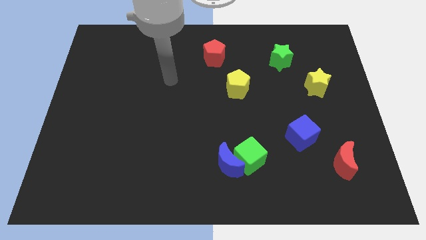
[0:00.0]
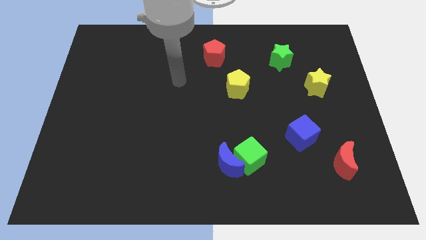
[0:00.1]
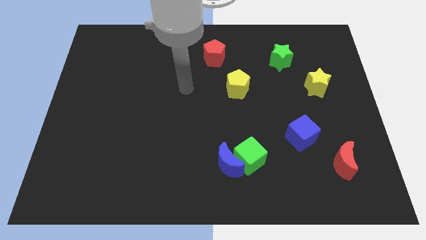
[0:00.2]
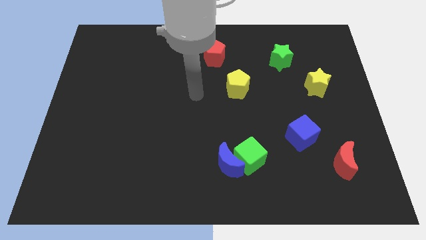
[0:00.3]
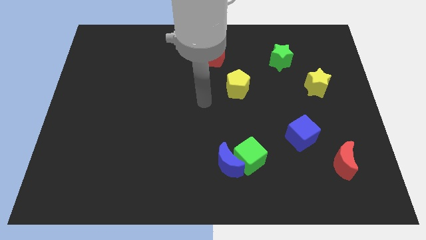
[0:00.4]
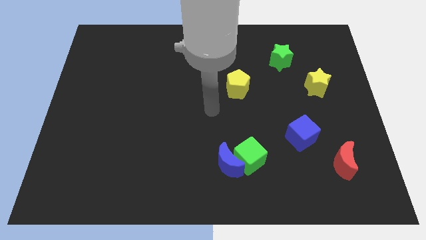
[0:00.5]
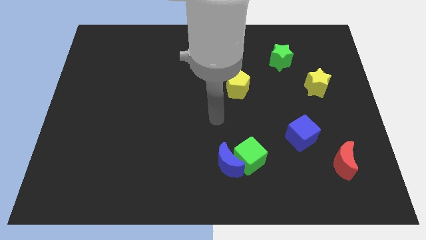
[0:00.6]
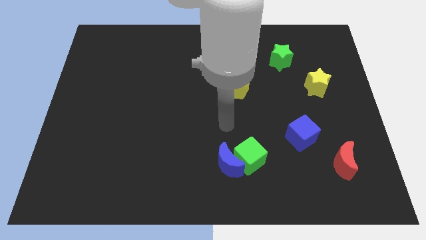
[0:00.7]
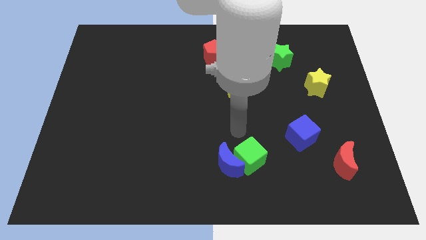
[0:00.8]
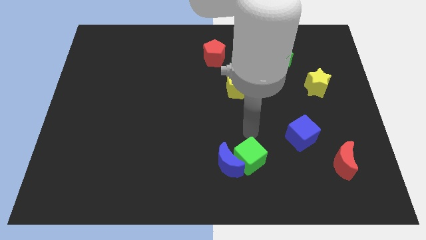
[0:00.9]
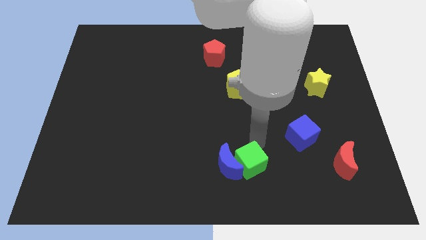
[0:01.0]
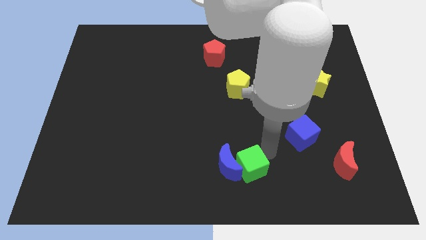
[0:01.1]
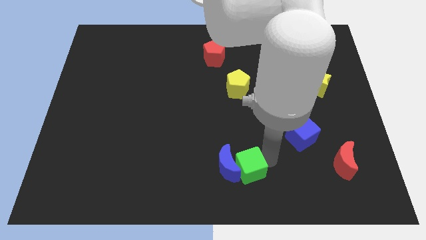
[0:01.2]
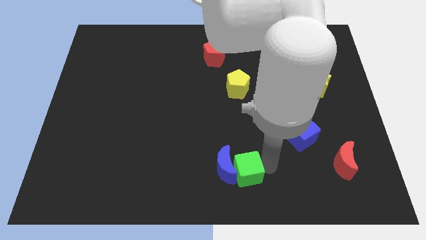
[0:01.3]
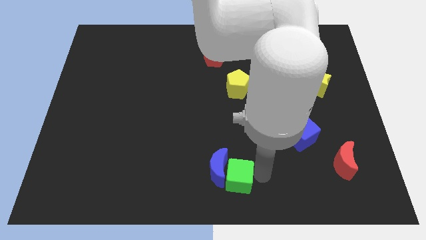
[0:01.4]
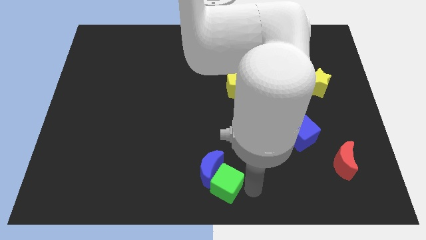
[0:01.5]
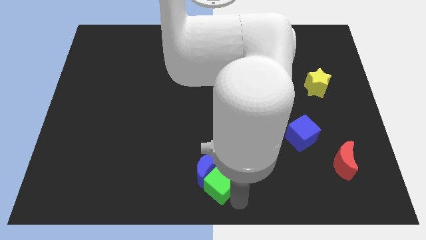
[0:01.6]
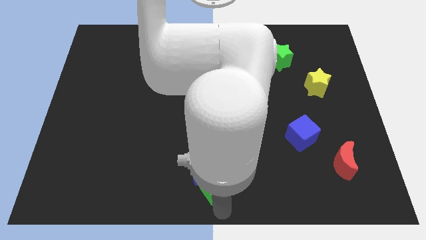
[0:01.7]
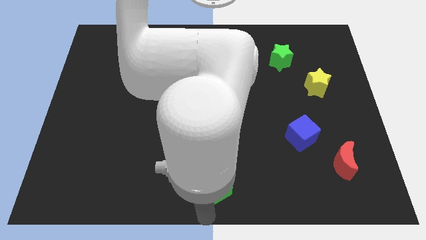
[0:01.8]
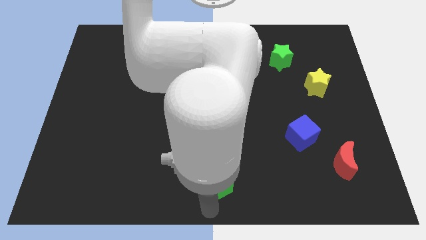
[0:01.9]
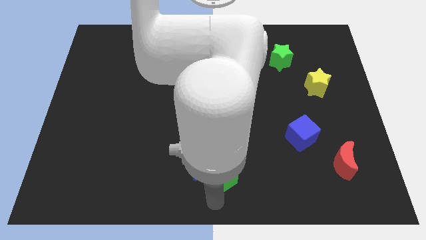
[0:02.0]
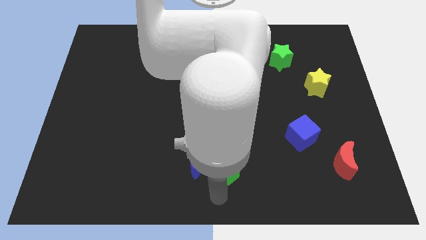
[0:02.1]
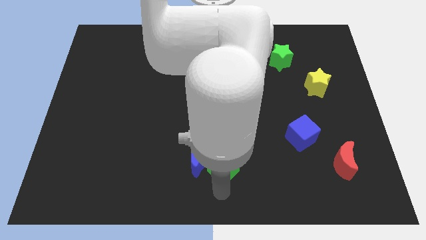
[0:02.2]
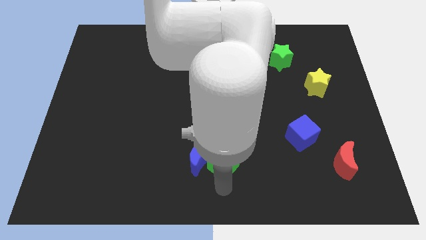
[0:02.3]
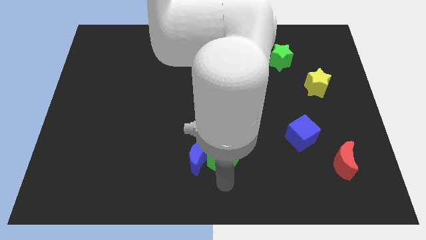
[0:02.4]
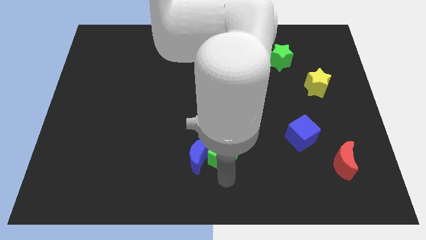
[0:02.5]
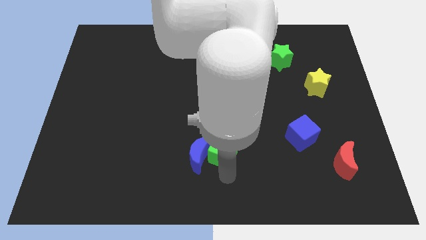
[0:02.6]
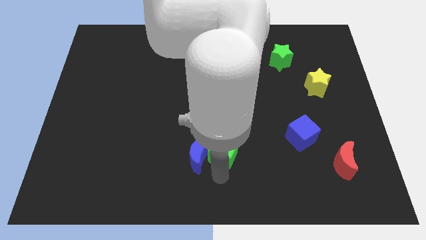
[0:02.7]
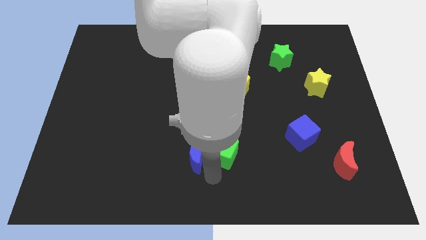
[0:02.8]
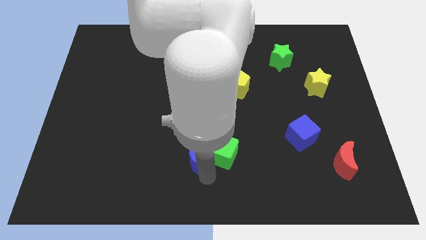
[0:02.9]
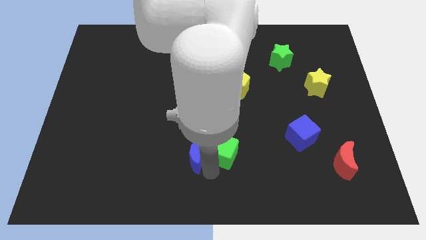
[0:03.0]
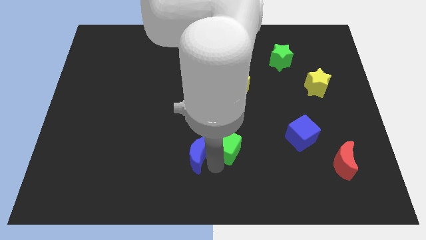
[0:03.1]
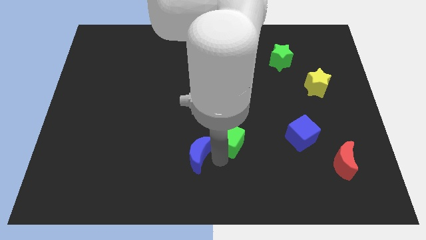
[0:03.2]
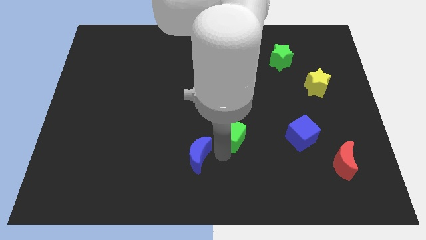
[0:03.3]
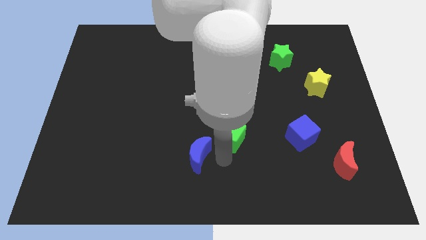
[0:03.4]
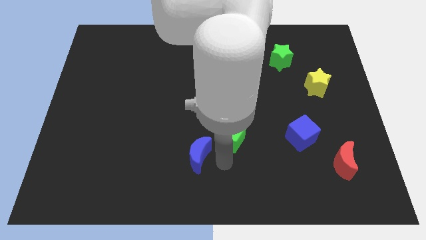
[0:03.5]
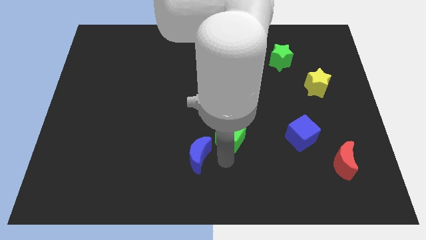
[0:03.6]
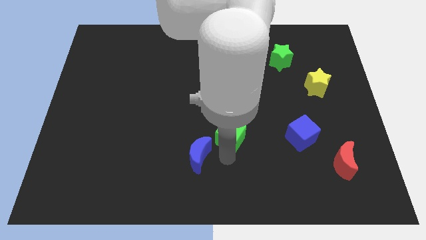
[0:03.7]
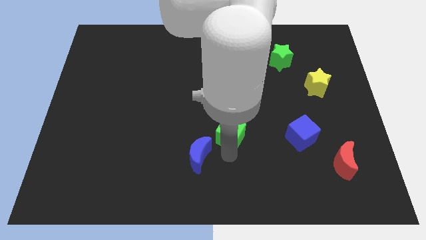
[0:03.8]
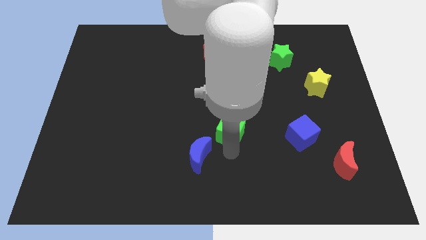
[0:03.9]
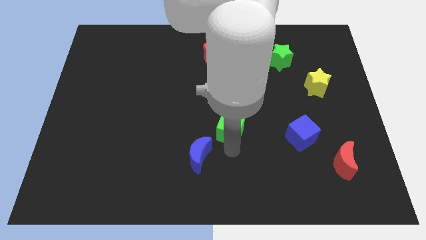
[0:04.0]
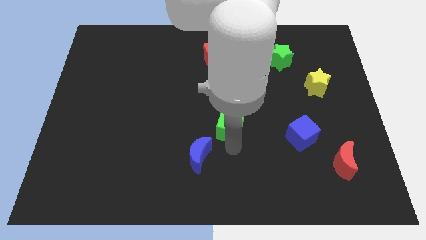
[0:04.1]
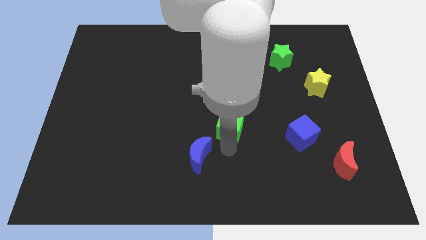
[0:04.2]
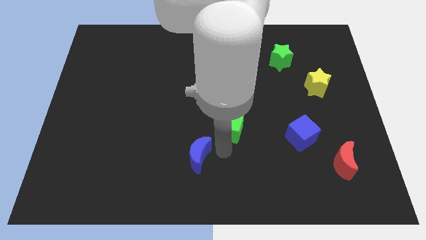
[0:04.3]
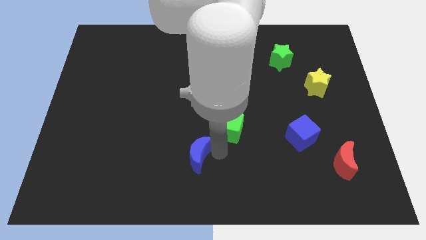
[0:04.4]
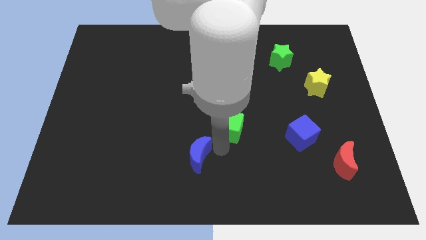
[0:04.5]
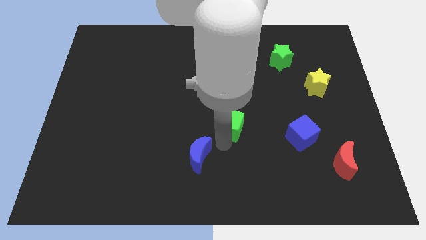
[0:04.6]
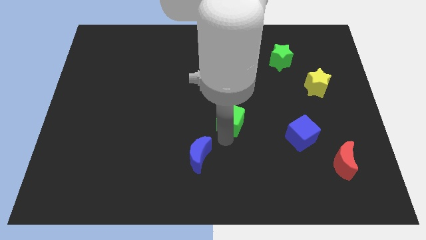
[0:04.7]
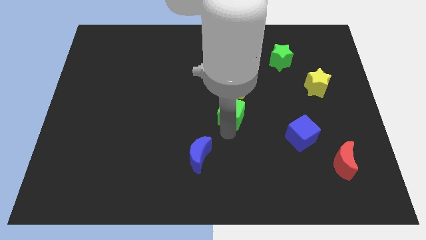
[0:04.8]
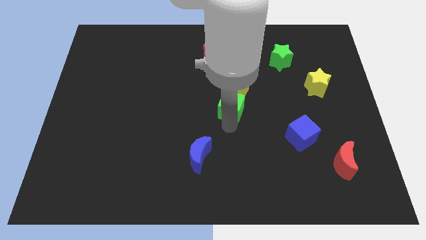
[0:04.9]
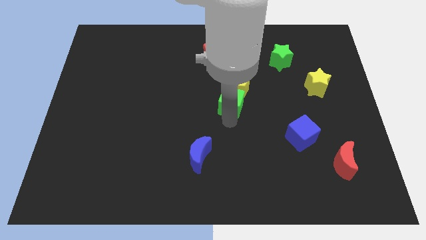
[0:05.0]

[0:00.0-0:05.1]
slide the green cube towards the yellow pentagon

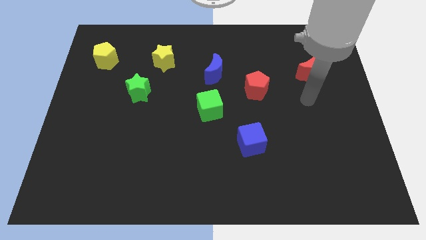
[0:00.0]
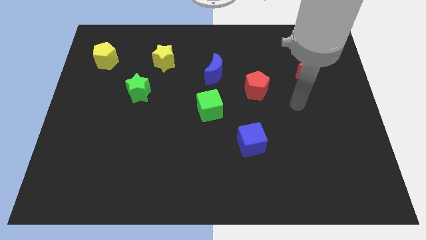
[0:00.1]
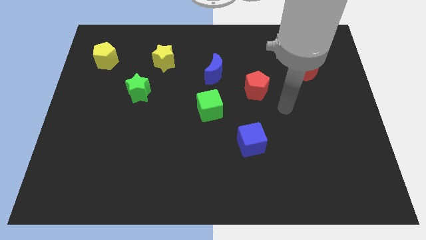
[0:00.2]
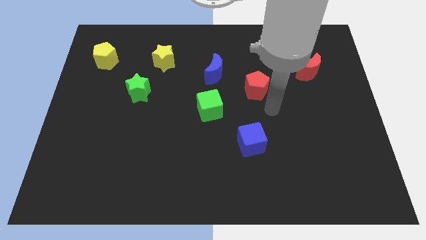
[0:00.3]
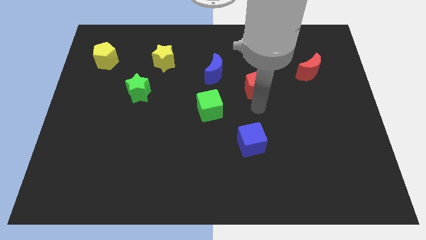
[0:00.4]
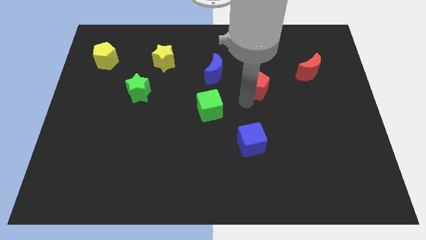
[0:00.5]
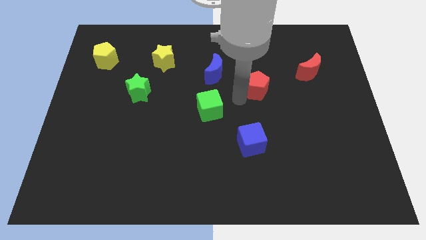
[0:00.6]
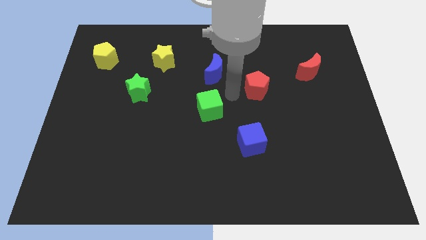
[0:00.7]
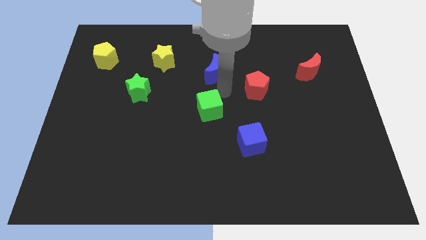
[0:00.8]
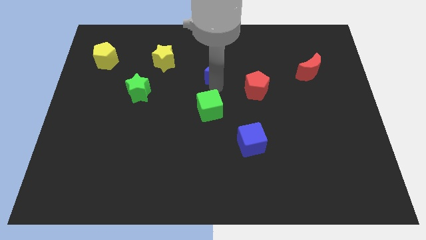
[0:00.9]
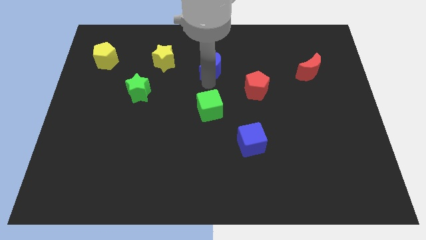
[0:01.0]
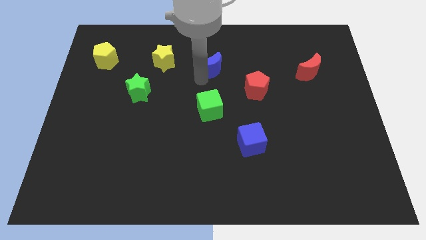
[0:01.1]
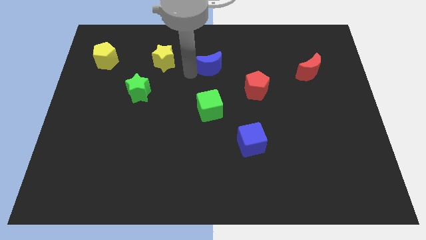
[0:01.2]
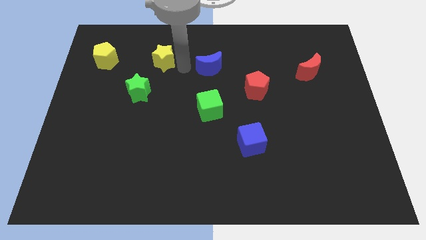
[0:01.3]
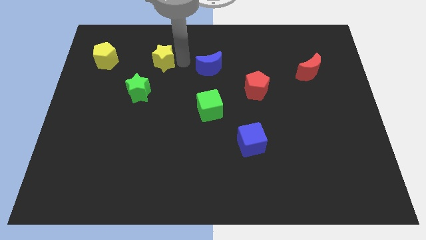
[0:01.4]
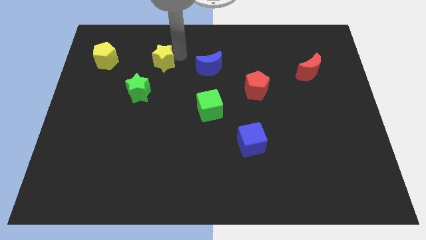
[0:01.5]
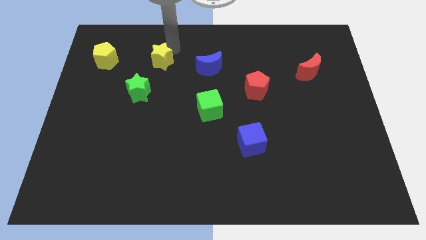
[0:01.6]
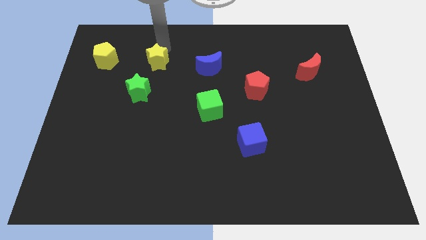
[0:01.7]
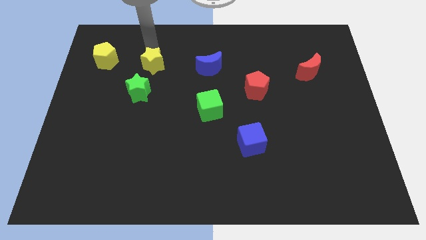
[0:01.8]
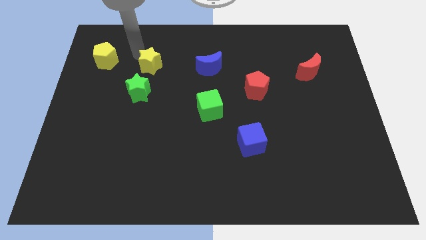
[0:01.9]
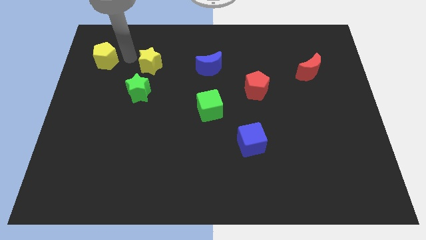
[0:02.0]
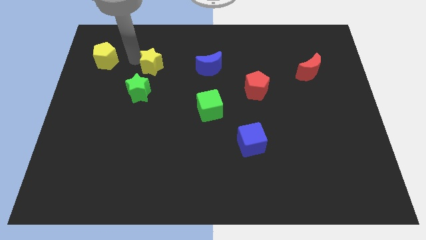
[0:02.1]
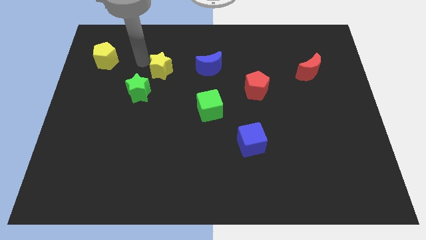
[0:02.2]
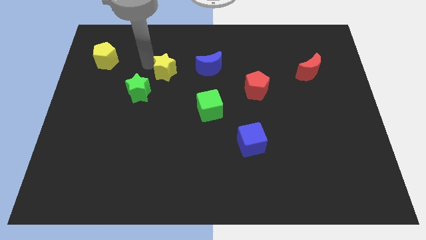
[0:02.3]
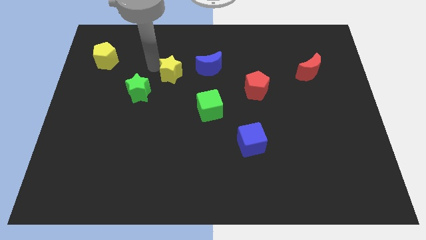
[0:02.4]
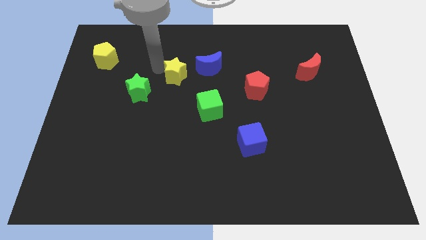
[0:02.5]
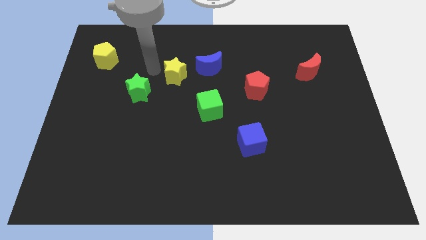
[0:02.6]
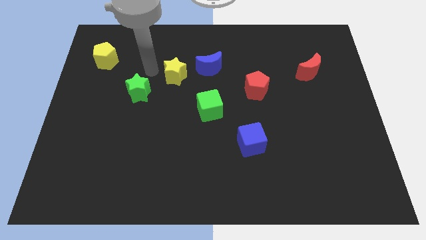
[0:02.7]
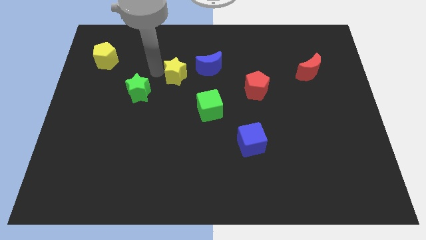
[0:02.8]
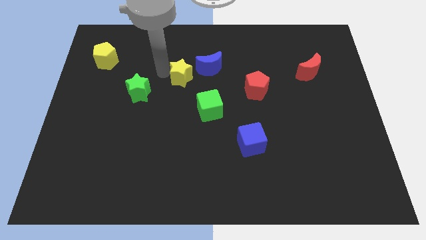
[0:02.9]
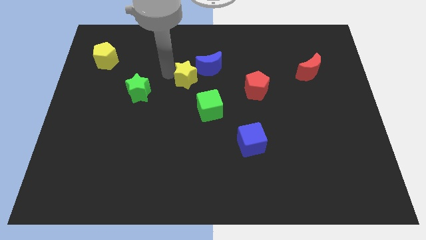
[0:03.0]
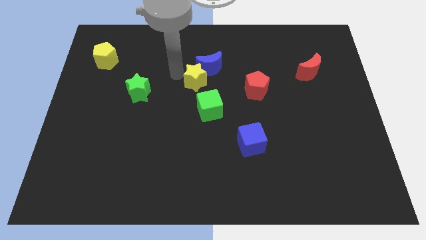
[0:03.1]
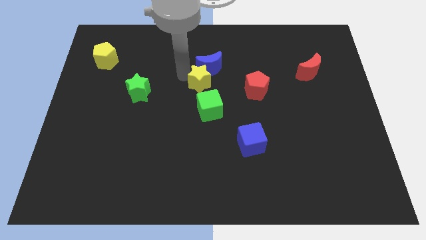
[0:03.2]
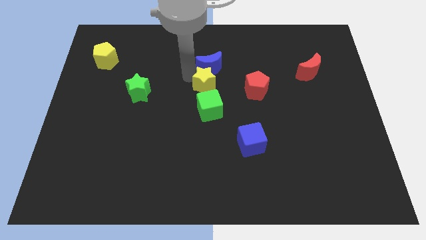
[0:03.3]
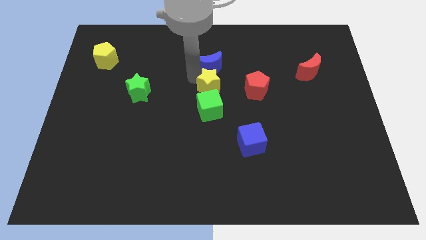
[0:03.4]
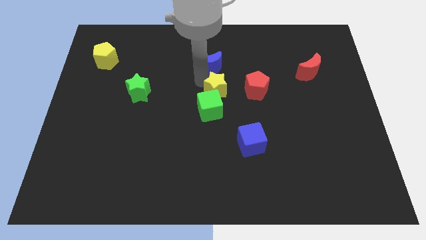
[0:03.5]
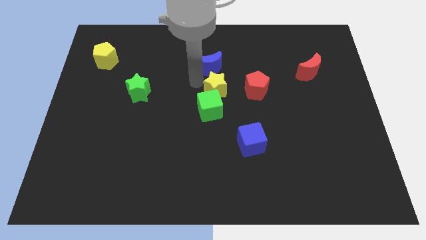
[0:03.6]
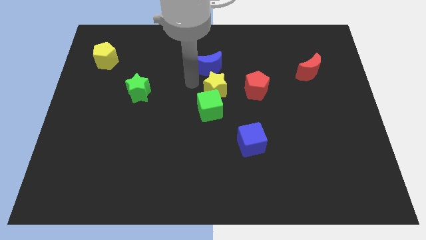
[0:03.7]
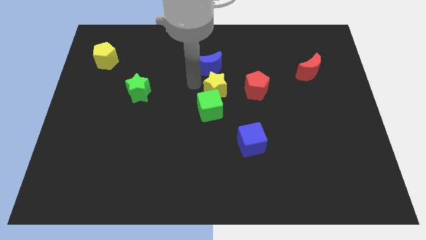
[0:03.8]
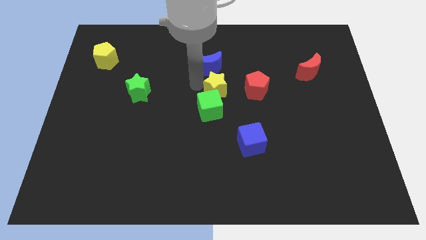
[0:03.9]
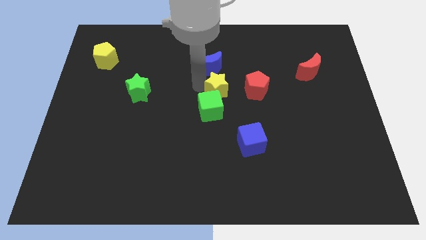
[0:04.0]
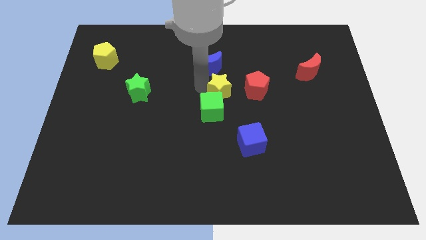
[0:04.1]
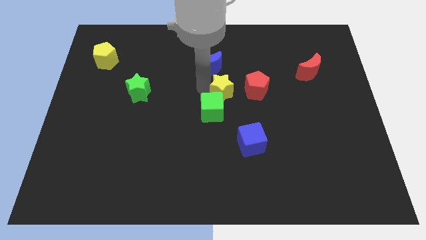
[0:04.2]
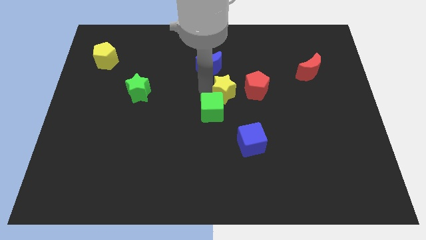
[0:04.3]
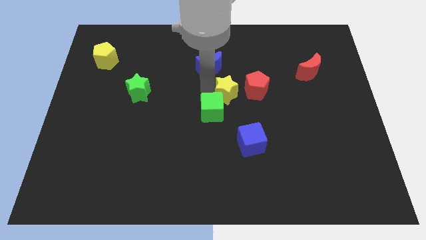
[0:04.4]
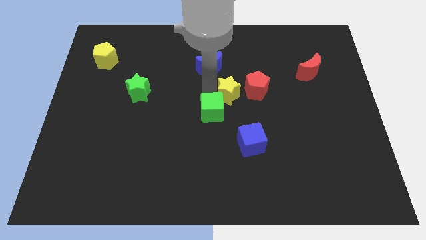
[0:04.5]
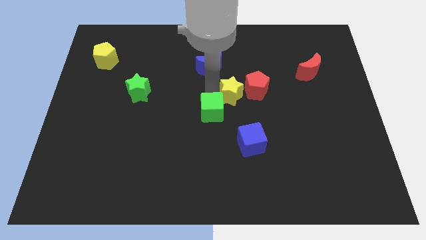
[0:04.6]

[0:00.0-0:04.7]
slide the yellow star close to the red pentagon
